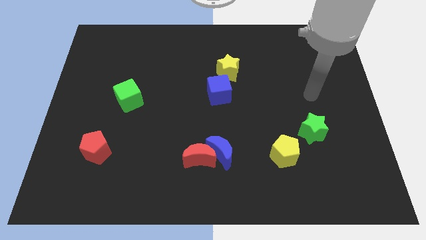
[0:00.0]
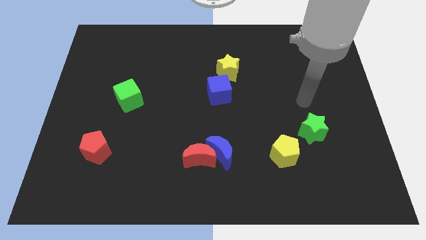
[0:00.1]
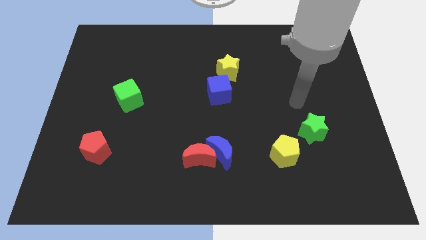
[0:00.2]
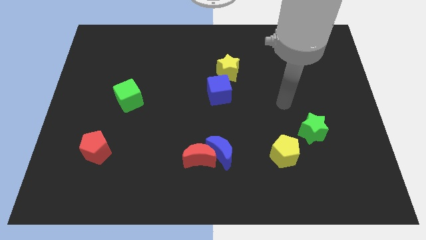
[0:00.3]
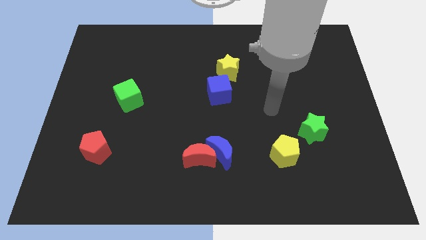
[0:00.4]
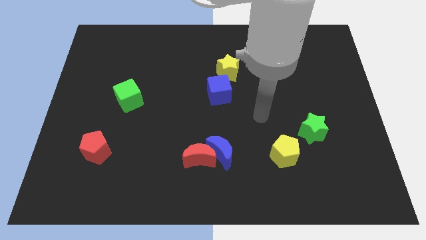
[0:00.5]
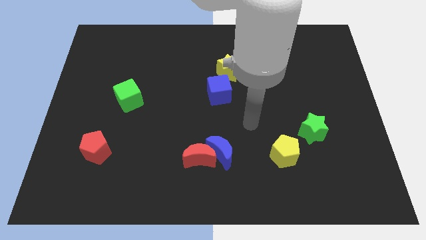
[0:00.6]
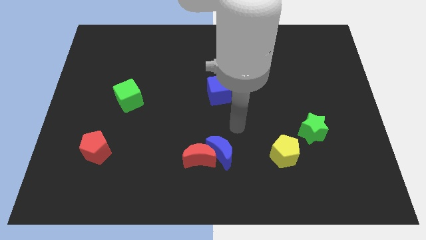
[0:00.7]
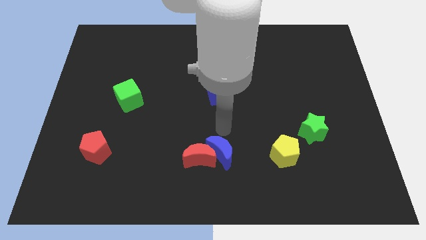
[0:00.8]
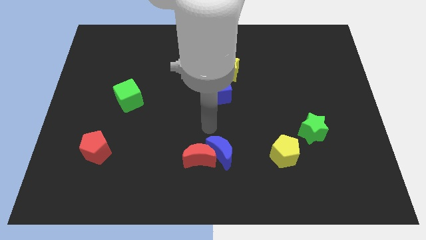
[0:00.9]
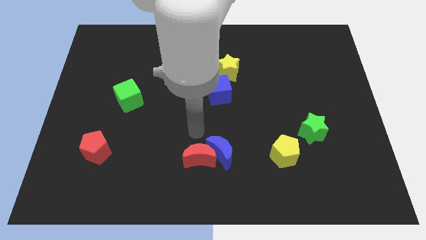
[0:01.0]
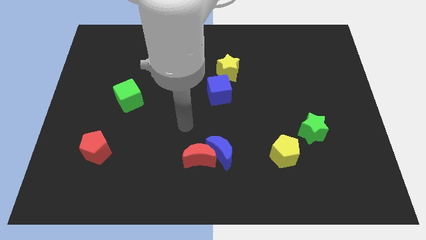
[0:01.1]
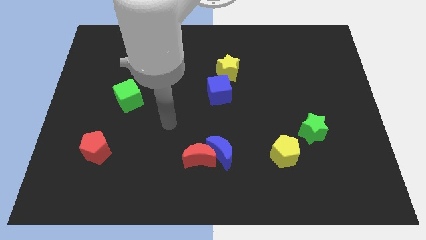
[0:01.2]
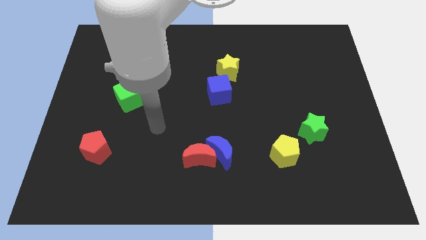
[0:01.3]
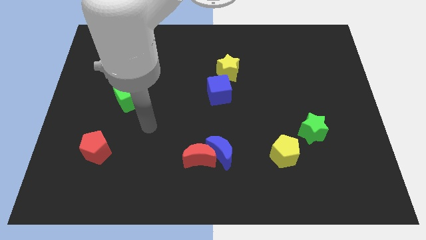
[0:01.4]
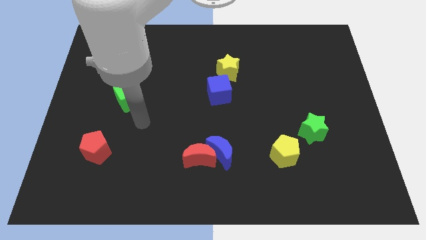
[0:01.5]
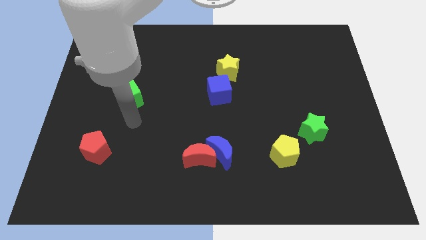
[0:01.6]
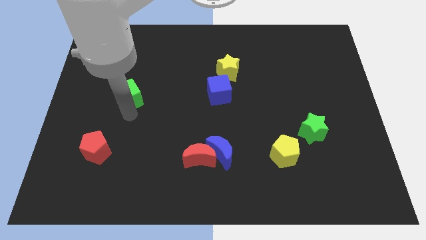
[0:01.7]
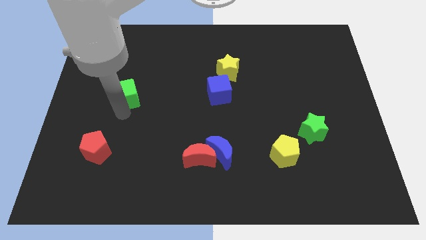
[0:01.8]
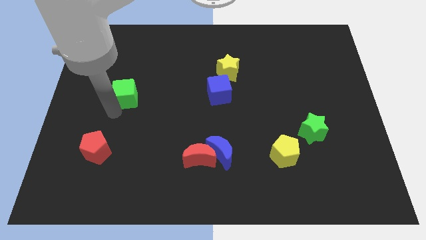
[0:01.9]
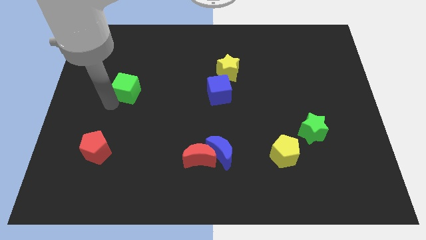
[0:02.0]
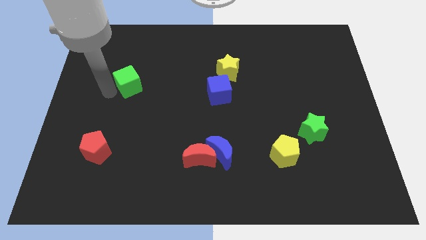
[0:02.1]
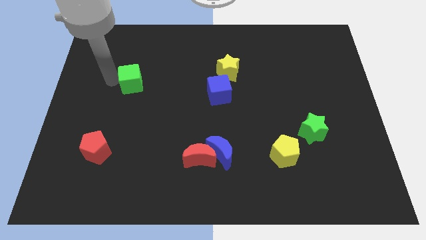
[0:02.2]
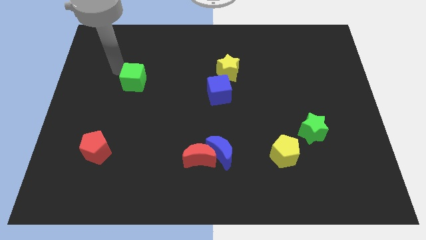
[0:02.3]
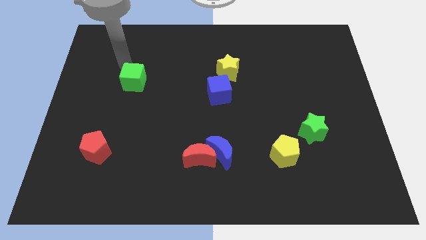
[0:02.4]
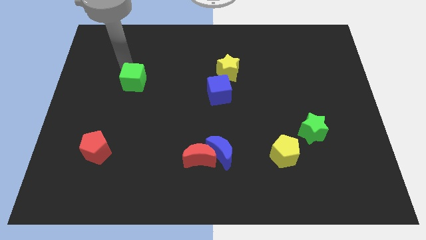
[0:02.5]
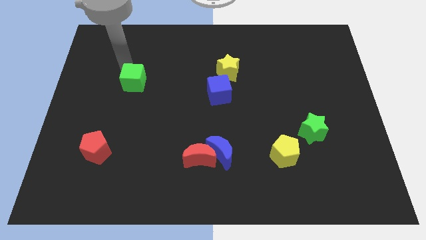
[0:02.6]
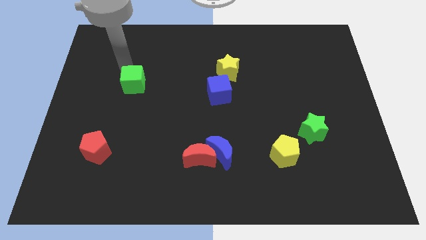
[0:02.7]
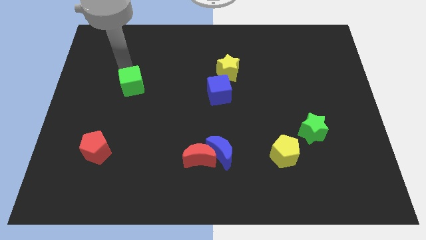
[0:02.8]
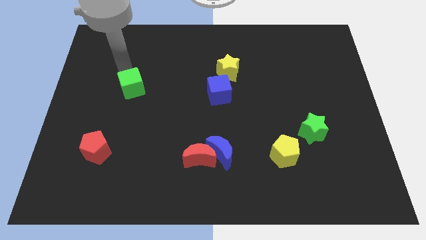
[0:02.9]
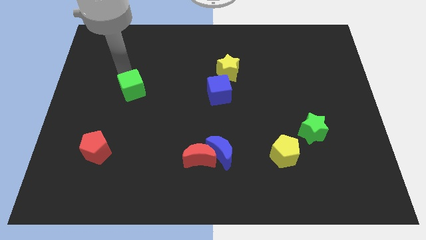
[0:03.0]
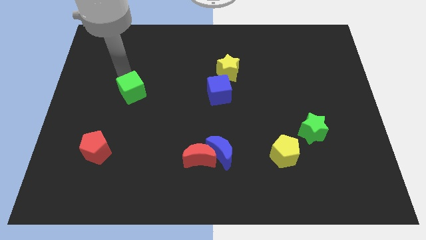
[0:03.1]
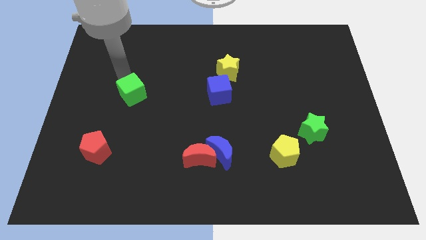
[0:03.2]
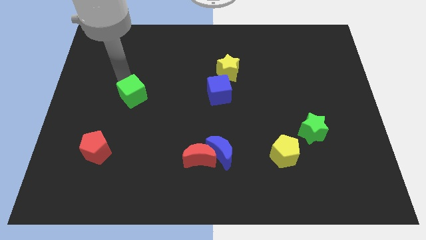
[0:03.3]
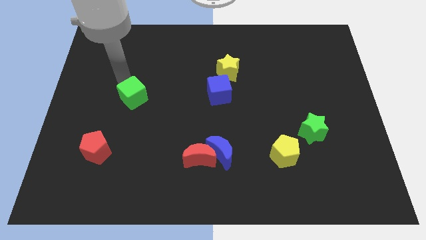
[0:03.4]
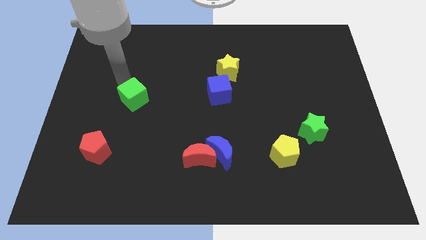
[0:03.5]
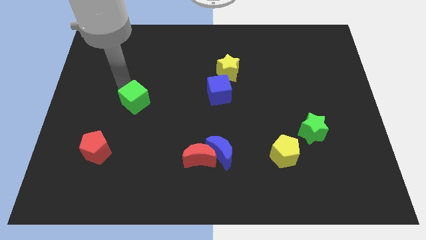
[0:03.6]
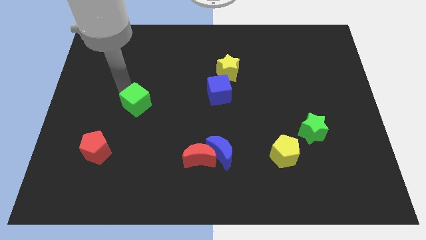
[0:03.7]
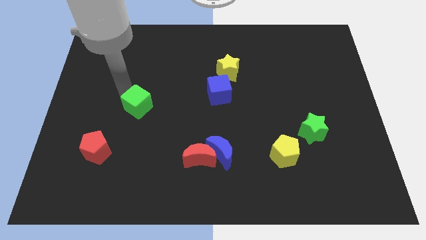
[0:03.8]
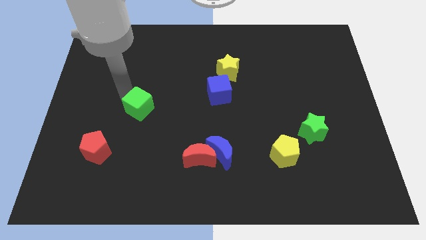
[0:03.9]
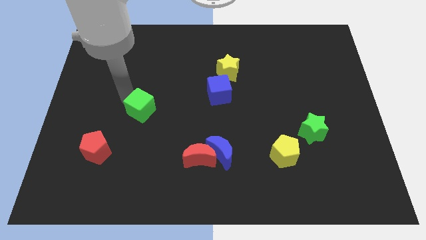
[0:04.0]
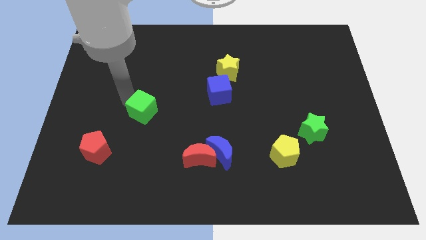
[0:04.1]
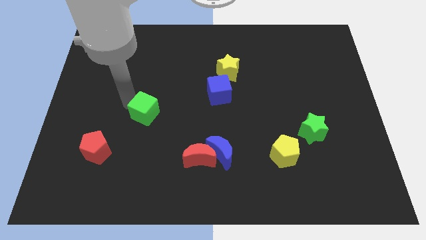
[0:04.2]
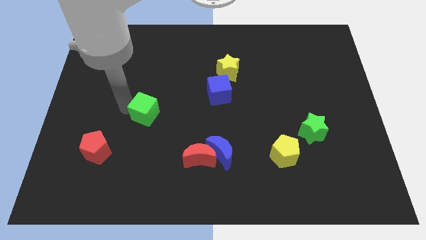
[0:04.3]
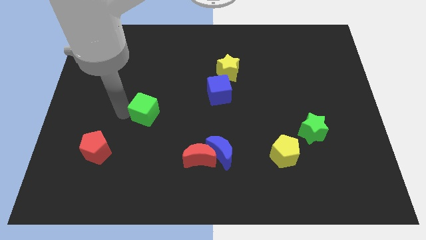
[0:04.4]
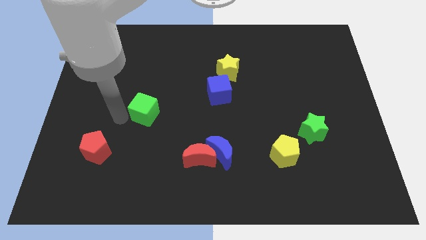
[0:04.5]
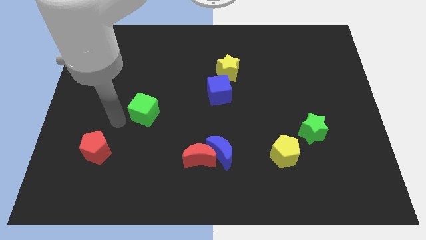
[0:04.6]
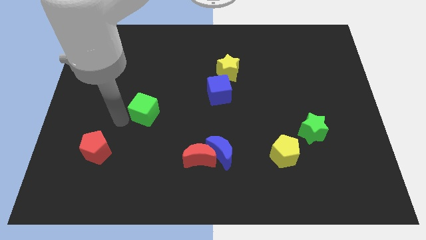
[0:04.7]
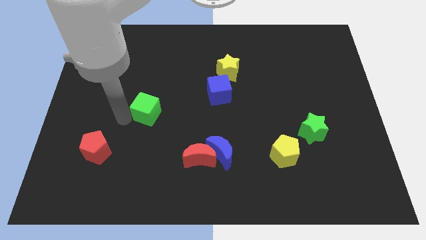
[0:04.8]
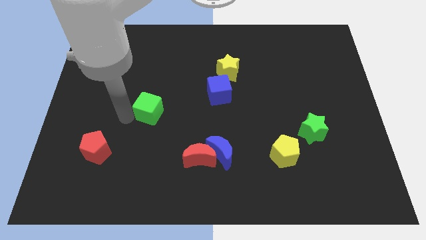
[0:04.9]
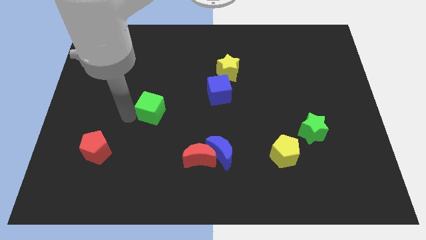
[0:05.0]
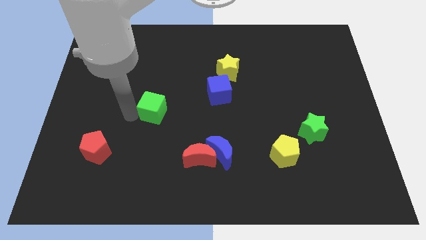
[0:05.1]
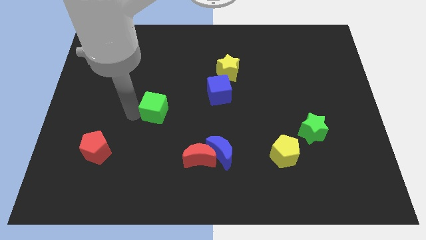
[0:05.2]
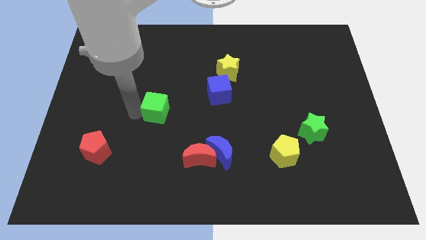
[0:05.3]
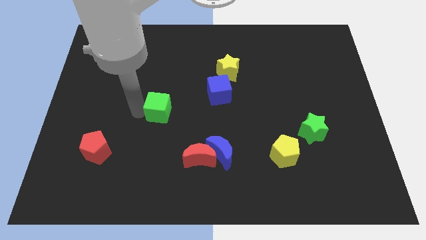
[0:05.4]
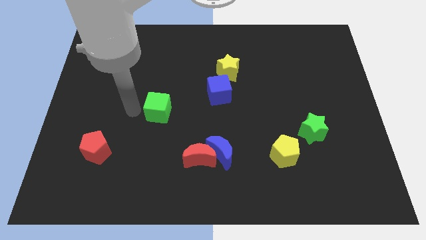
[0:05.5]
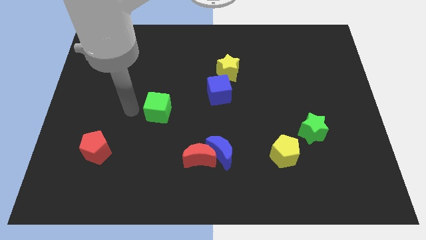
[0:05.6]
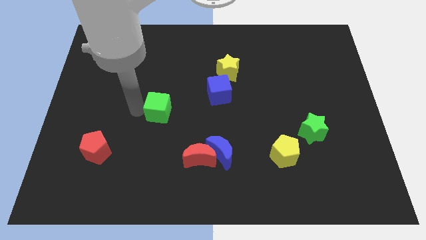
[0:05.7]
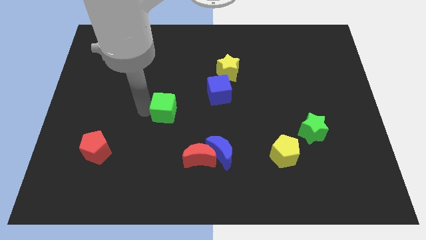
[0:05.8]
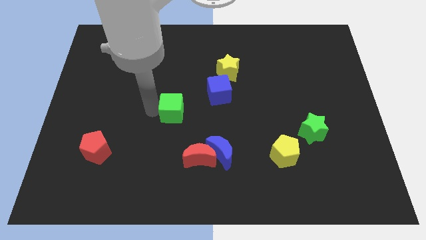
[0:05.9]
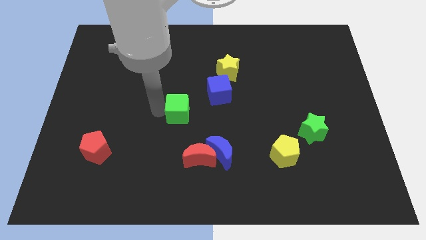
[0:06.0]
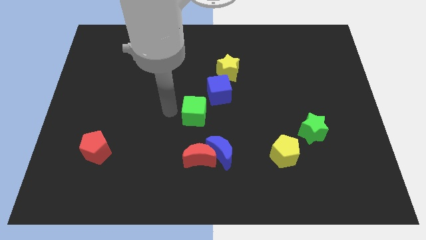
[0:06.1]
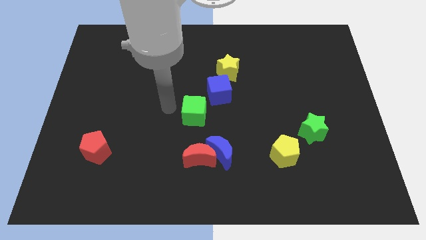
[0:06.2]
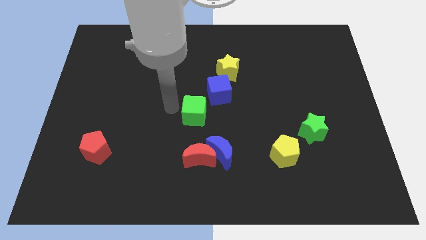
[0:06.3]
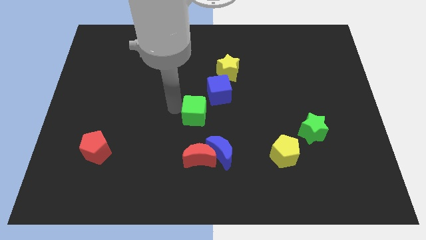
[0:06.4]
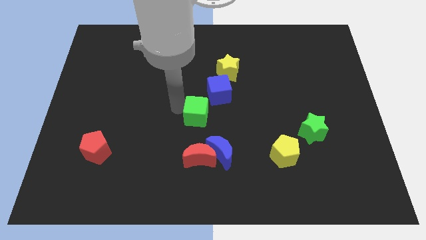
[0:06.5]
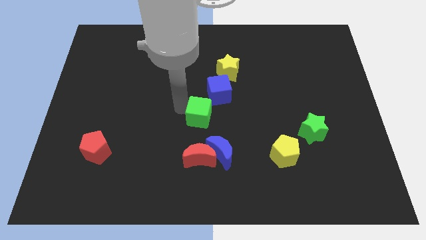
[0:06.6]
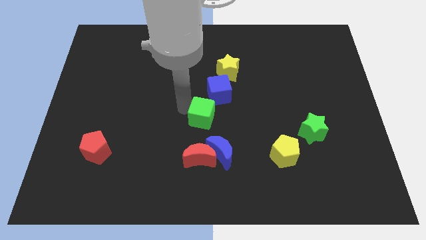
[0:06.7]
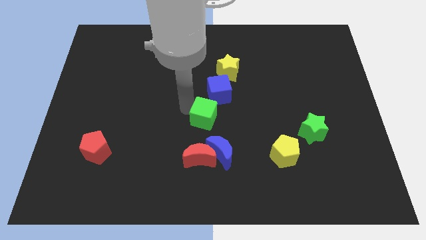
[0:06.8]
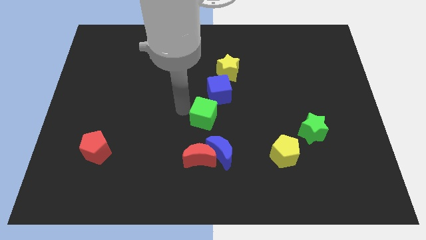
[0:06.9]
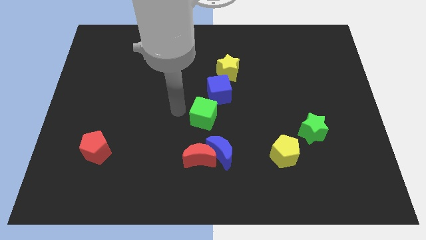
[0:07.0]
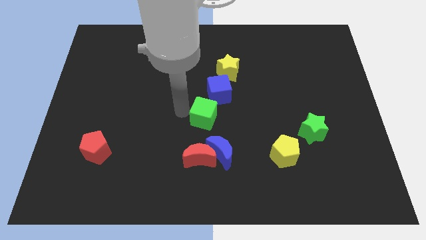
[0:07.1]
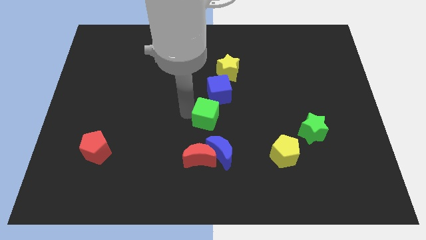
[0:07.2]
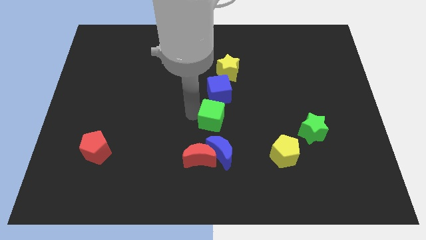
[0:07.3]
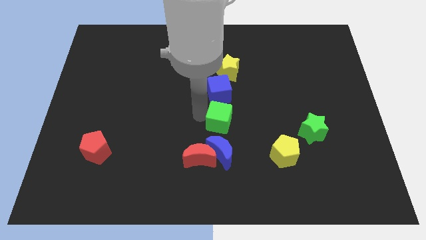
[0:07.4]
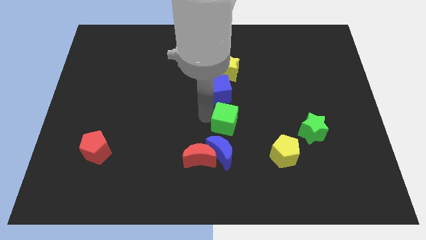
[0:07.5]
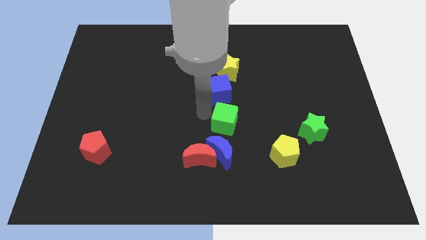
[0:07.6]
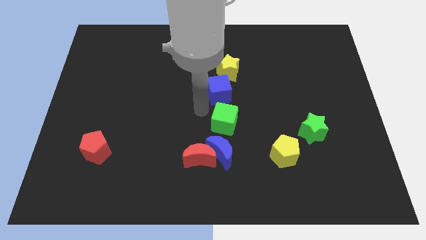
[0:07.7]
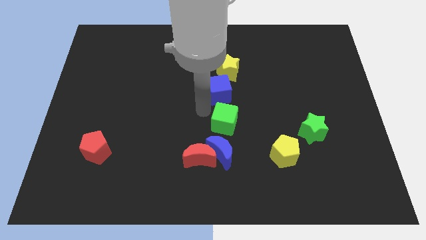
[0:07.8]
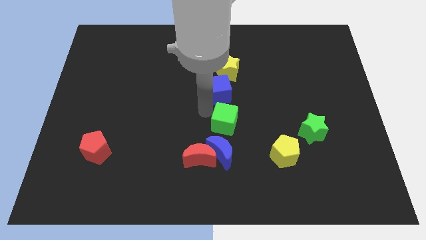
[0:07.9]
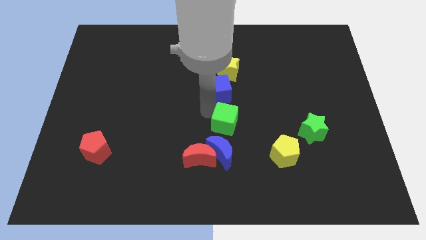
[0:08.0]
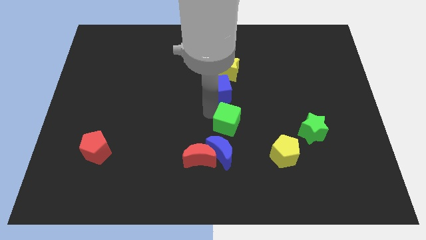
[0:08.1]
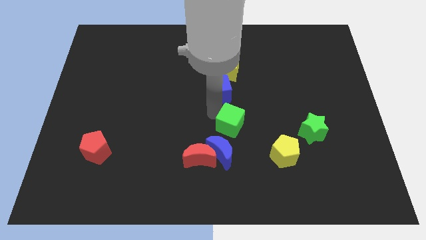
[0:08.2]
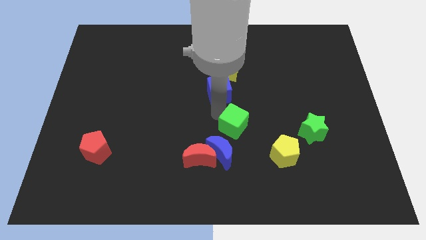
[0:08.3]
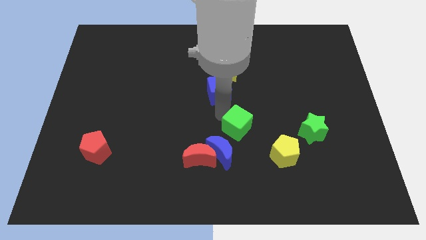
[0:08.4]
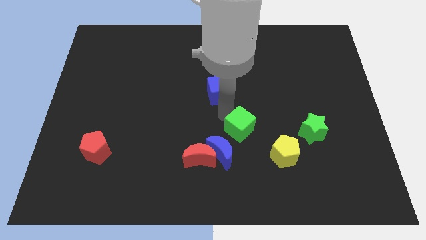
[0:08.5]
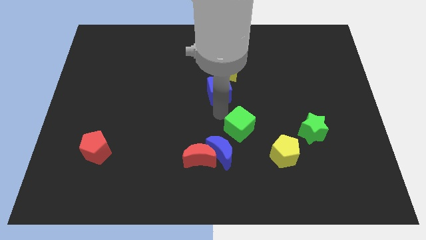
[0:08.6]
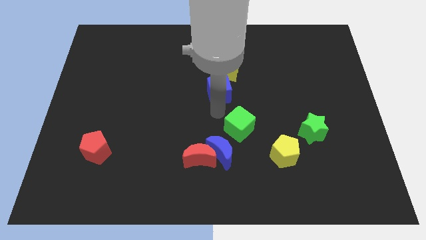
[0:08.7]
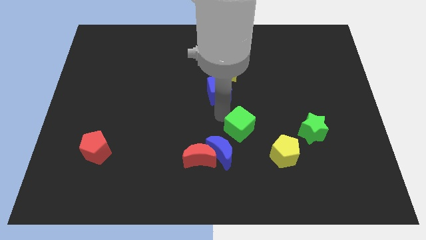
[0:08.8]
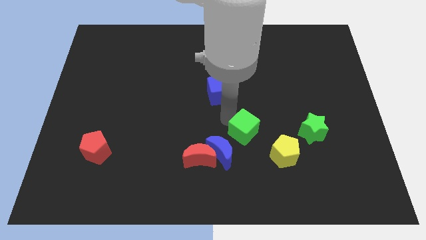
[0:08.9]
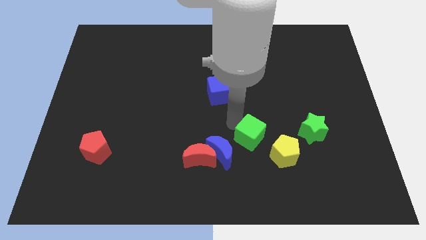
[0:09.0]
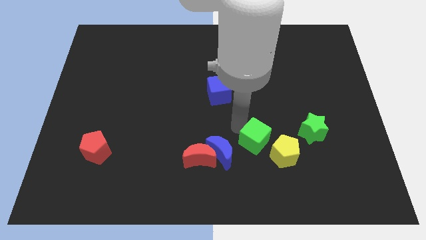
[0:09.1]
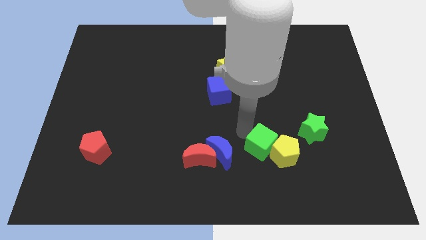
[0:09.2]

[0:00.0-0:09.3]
push the green cube towards the yellow pentagon
